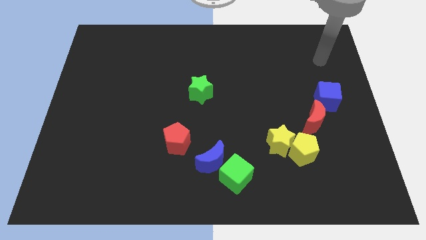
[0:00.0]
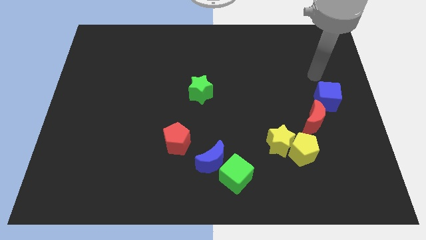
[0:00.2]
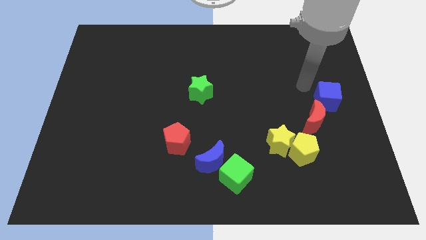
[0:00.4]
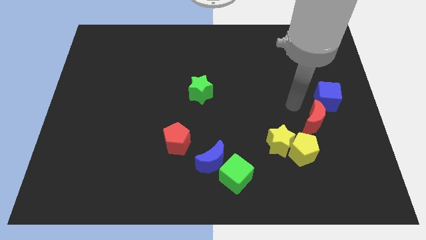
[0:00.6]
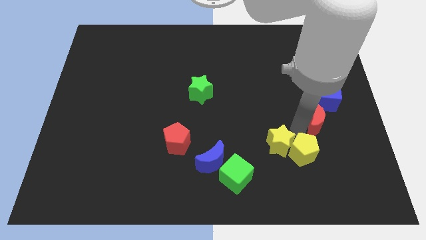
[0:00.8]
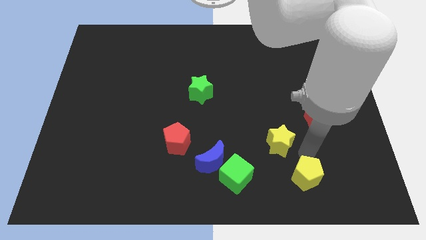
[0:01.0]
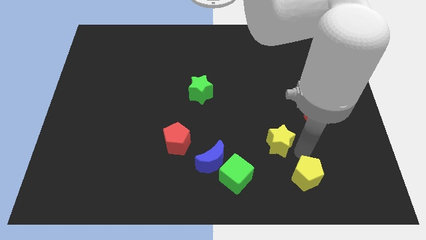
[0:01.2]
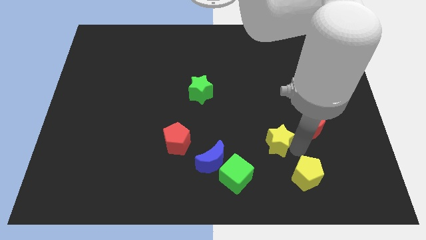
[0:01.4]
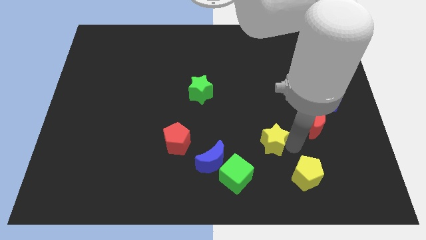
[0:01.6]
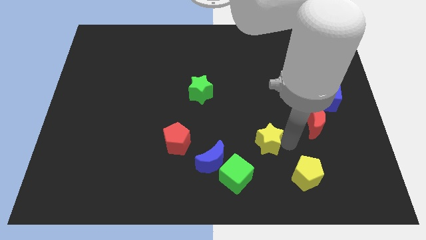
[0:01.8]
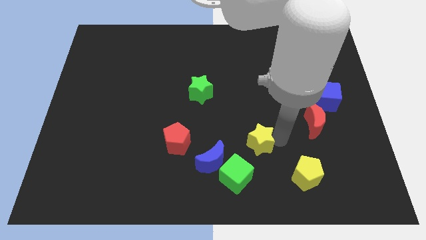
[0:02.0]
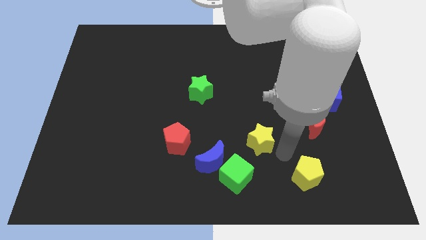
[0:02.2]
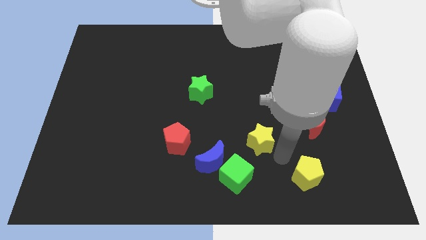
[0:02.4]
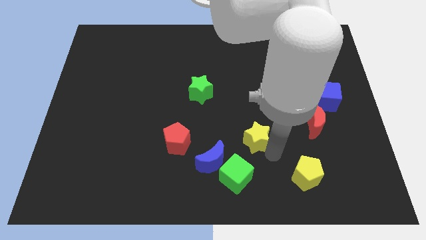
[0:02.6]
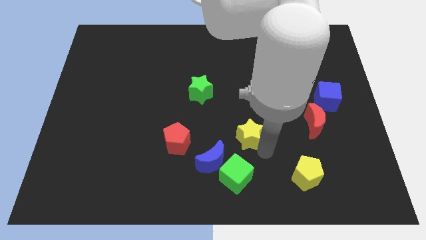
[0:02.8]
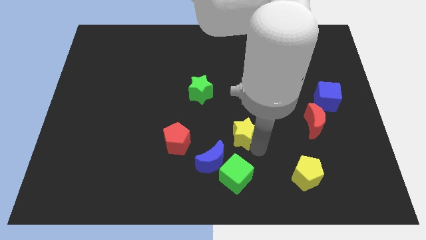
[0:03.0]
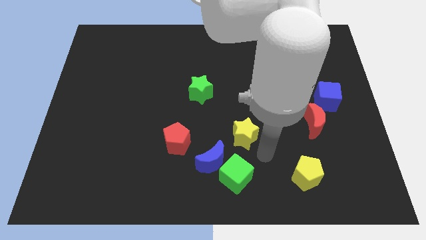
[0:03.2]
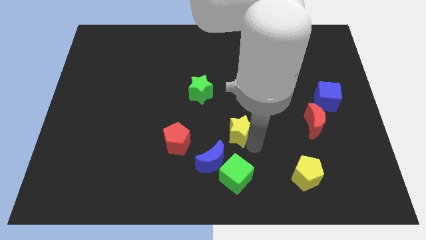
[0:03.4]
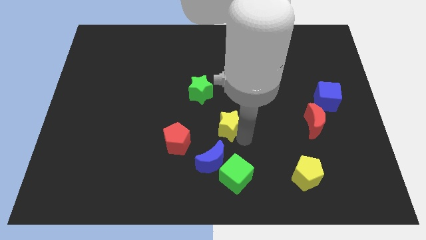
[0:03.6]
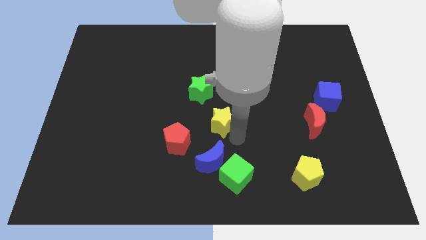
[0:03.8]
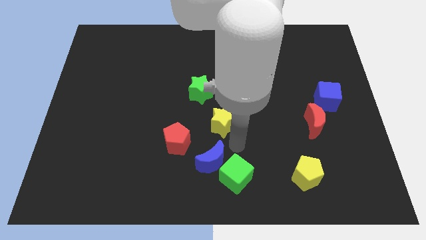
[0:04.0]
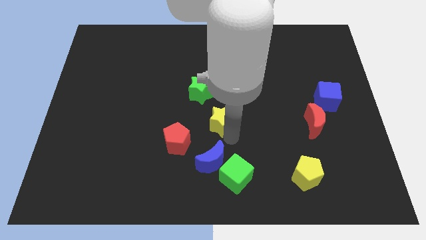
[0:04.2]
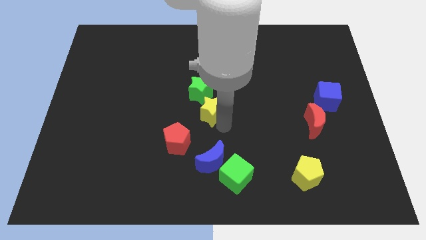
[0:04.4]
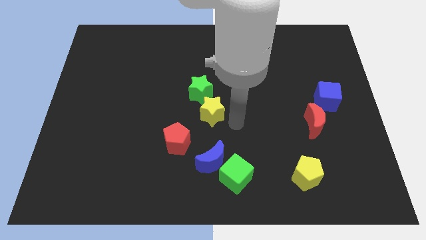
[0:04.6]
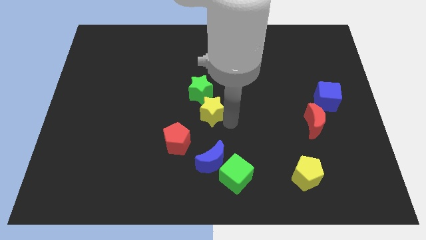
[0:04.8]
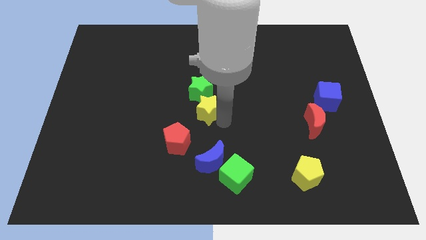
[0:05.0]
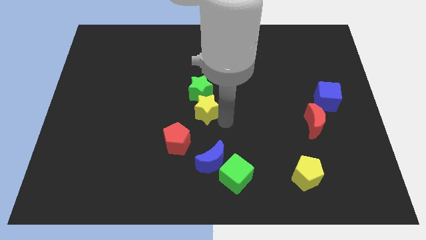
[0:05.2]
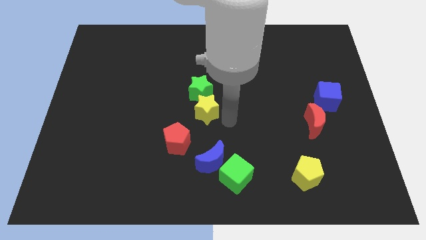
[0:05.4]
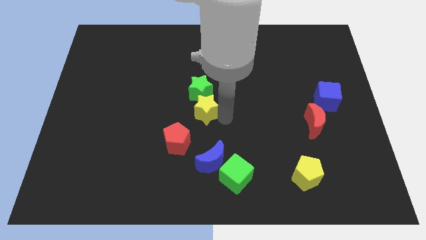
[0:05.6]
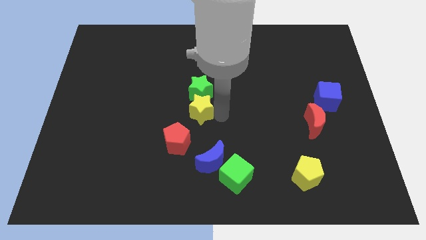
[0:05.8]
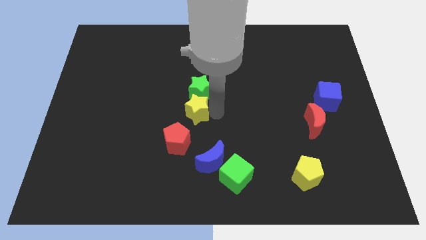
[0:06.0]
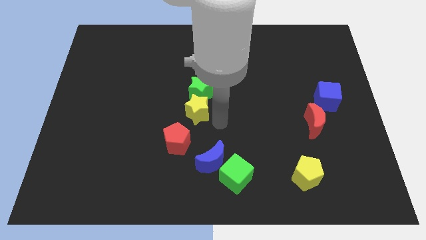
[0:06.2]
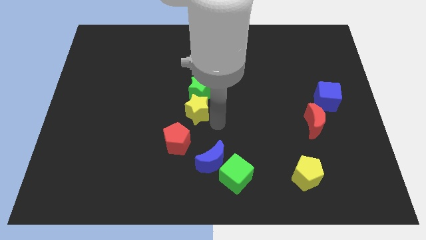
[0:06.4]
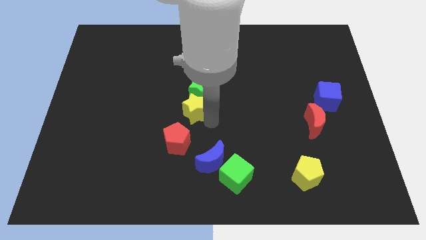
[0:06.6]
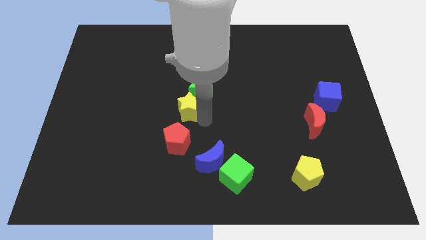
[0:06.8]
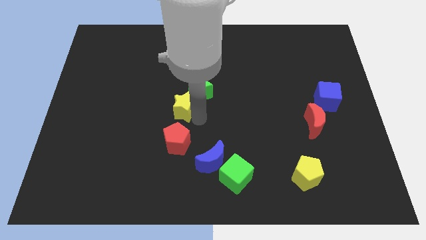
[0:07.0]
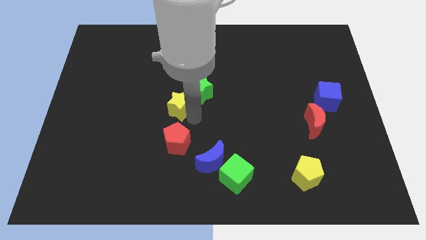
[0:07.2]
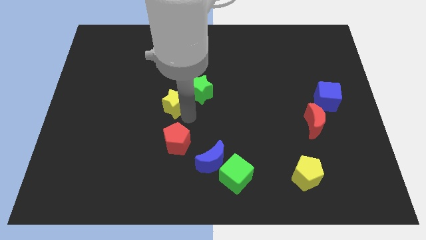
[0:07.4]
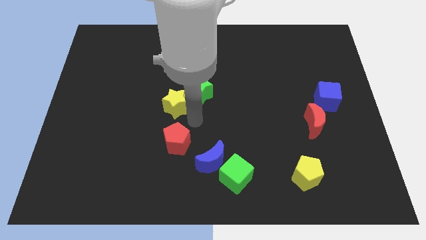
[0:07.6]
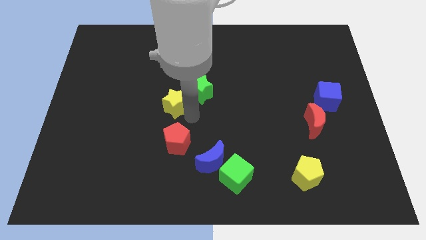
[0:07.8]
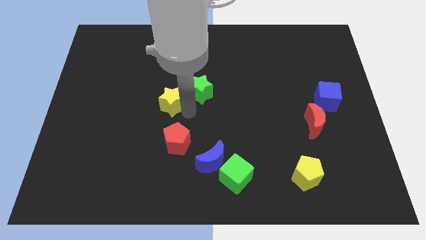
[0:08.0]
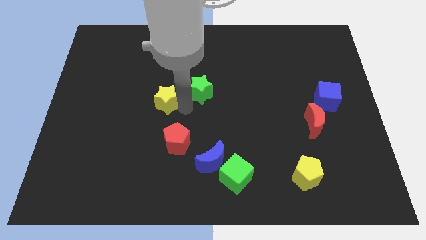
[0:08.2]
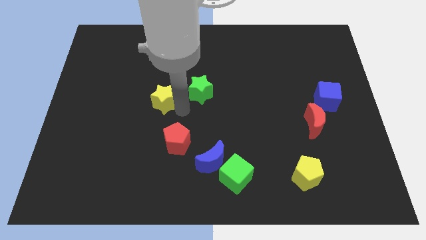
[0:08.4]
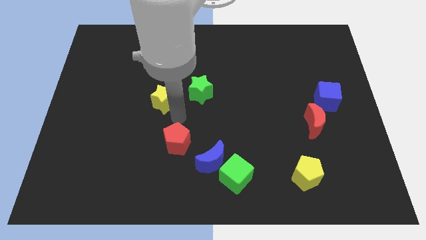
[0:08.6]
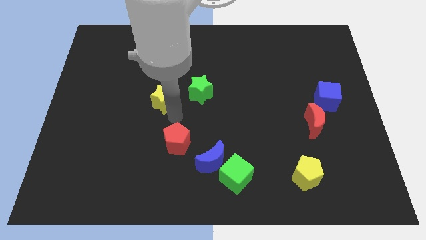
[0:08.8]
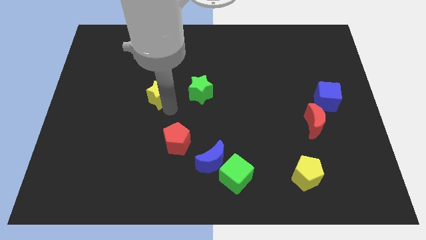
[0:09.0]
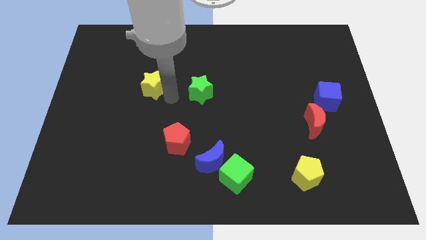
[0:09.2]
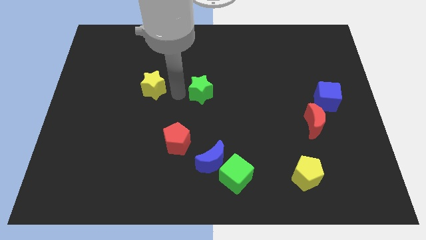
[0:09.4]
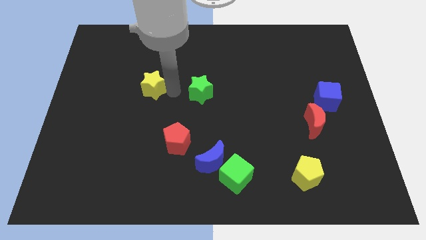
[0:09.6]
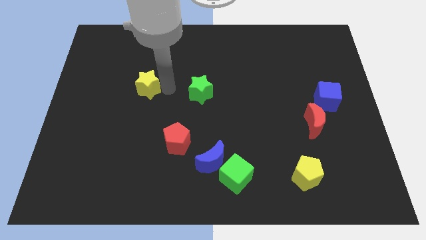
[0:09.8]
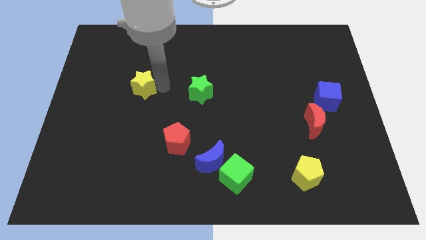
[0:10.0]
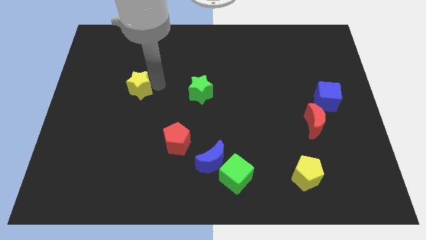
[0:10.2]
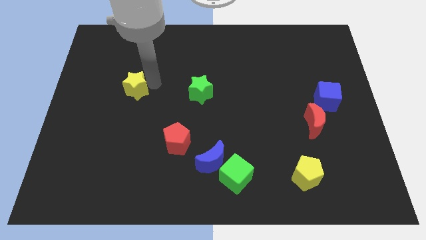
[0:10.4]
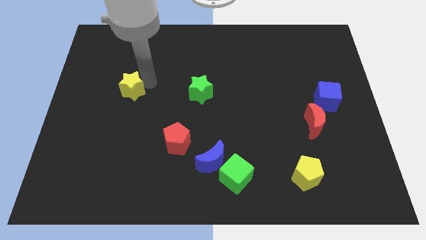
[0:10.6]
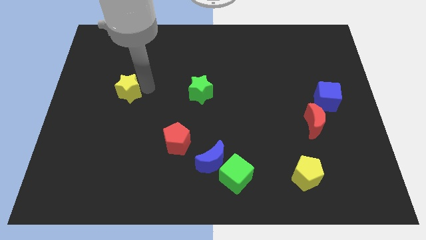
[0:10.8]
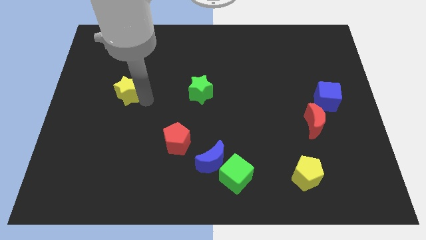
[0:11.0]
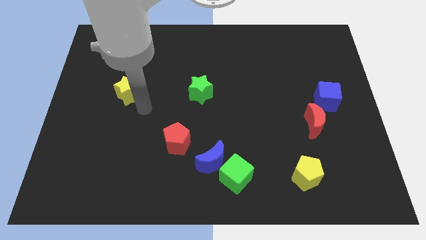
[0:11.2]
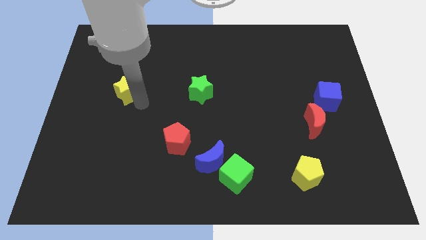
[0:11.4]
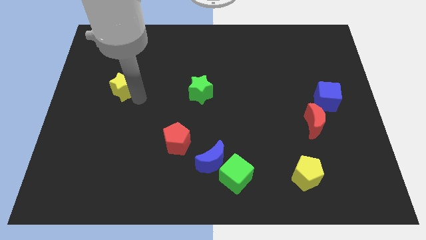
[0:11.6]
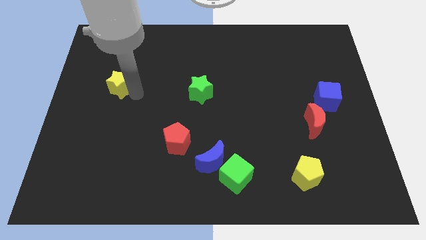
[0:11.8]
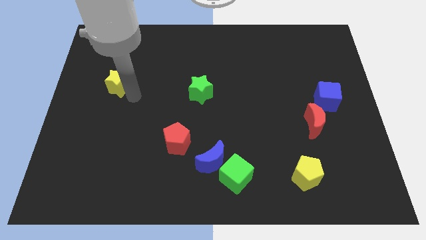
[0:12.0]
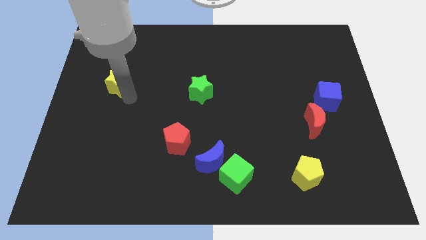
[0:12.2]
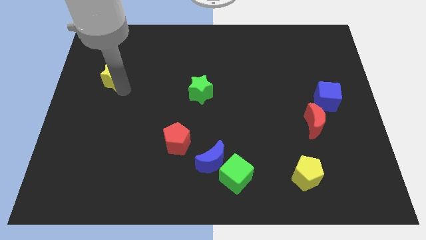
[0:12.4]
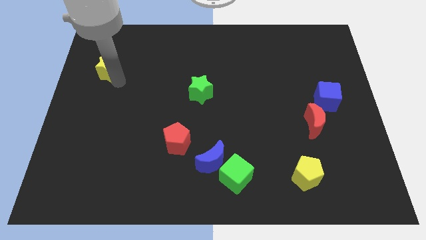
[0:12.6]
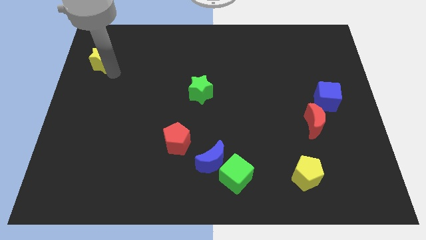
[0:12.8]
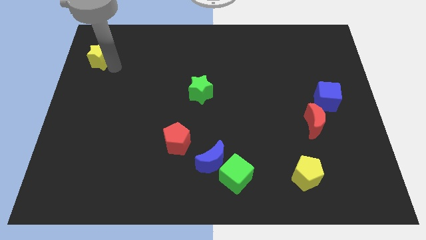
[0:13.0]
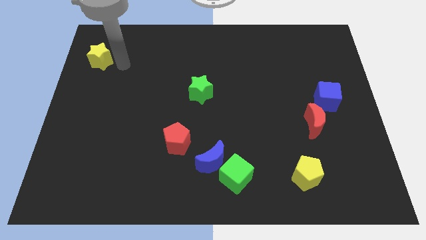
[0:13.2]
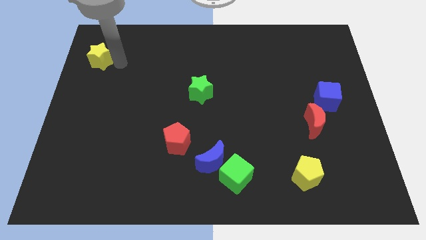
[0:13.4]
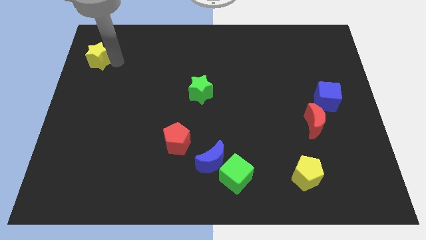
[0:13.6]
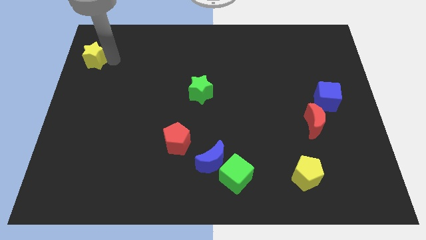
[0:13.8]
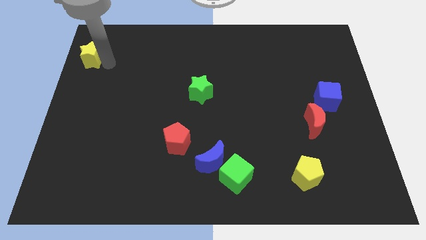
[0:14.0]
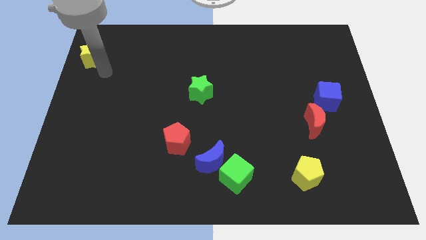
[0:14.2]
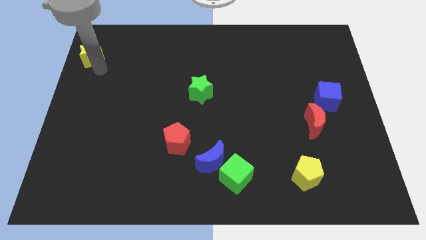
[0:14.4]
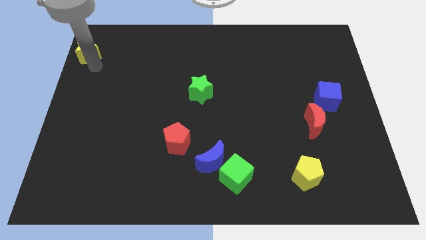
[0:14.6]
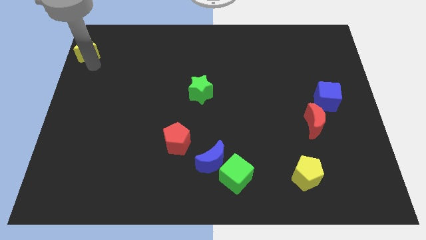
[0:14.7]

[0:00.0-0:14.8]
slide the yellow star to the top left
